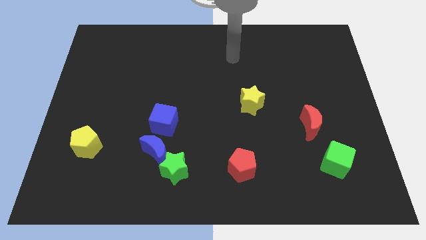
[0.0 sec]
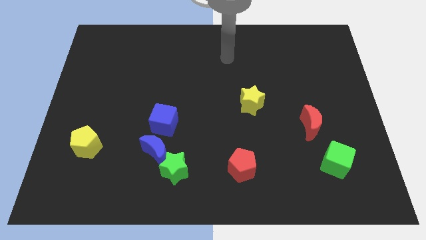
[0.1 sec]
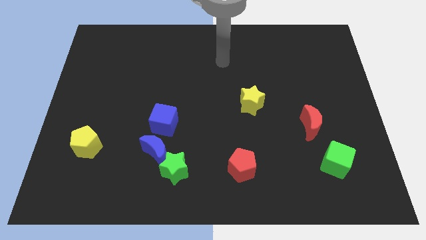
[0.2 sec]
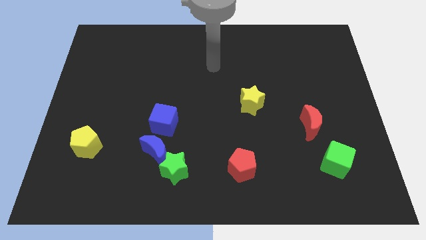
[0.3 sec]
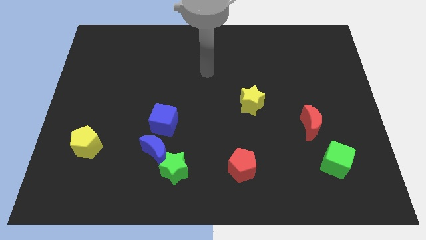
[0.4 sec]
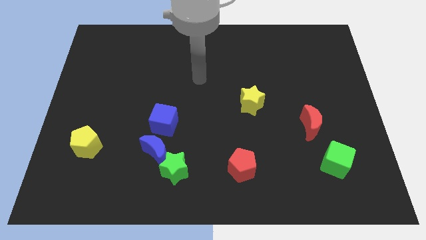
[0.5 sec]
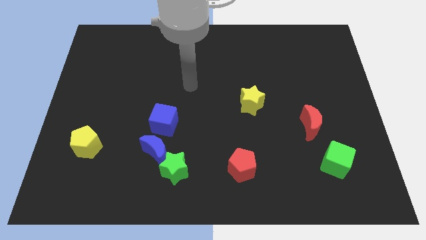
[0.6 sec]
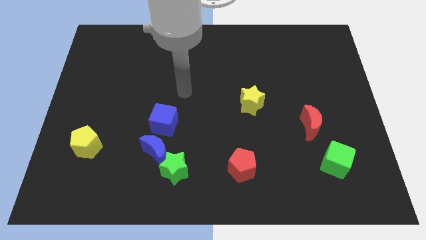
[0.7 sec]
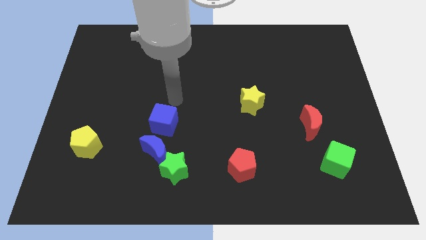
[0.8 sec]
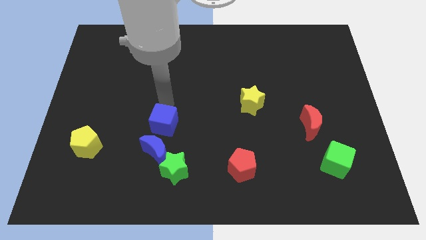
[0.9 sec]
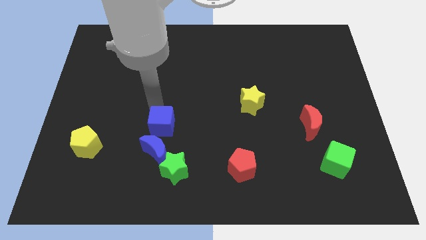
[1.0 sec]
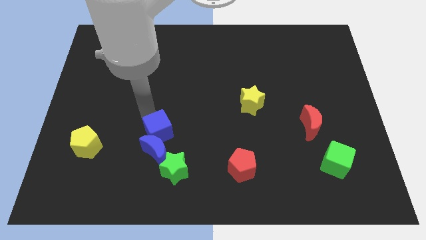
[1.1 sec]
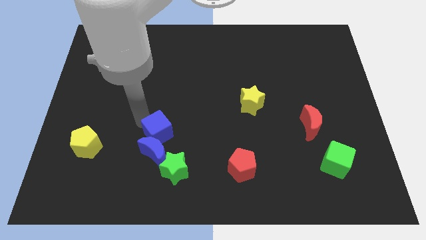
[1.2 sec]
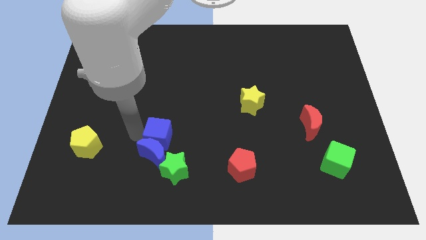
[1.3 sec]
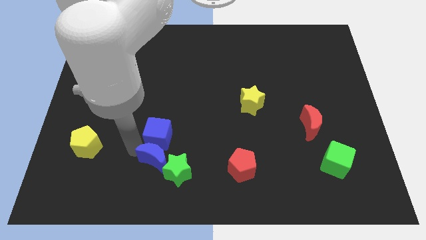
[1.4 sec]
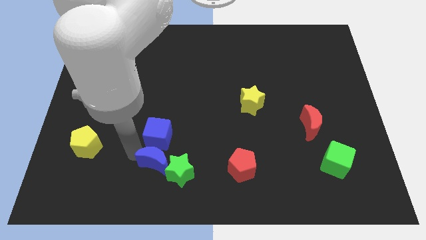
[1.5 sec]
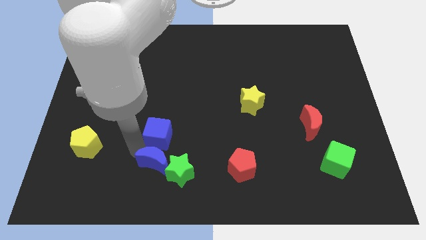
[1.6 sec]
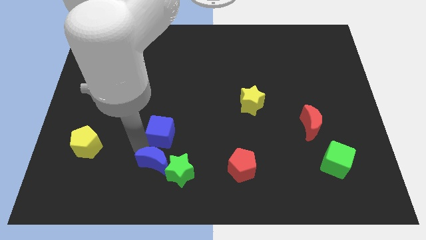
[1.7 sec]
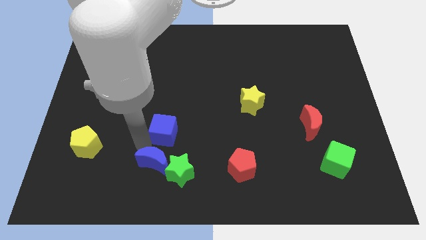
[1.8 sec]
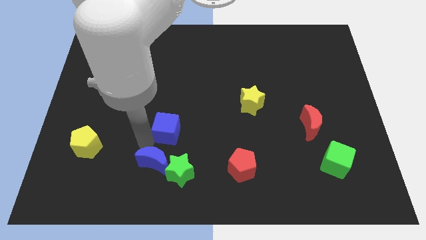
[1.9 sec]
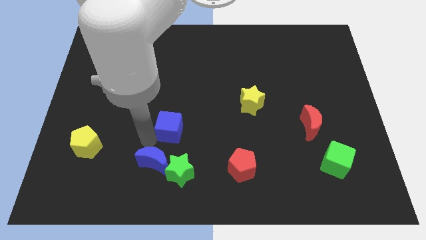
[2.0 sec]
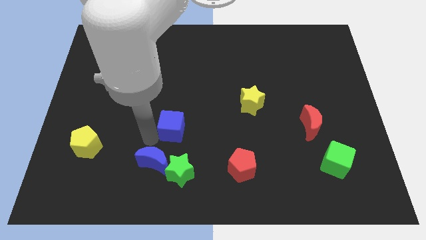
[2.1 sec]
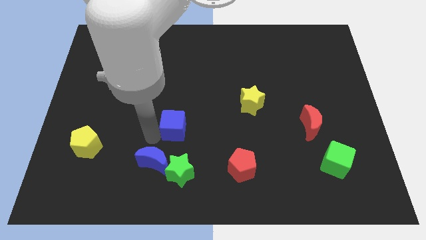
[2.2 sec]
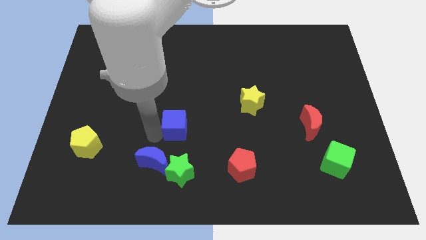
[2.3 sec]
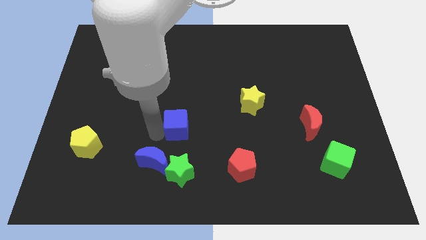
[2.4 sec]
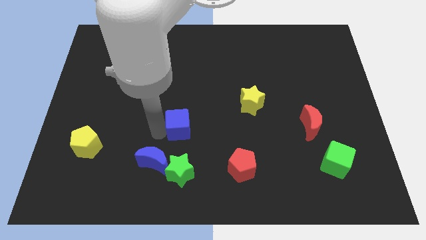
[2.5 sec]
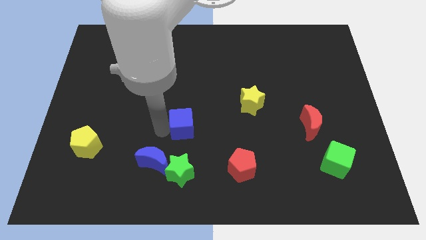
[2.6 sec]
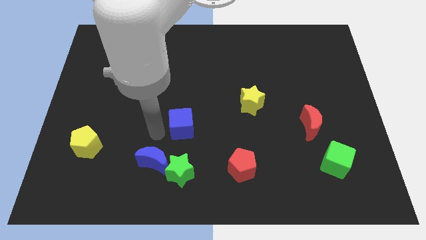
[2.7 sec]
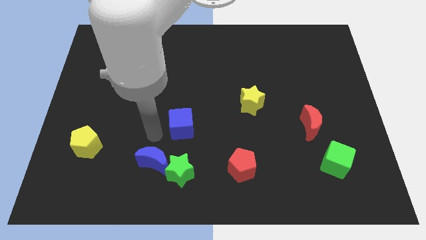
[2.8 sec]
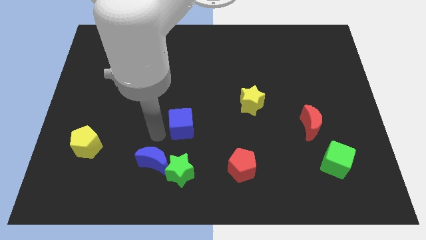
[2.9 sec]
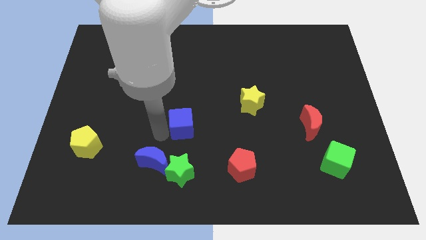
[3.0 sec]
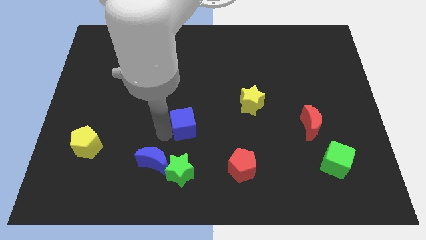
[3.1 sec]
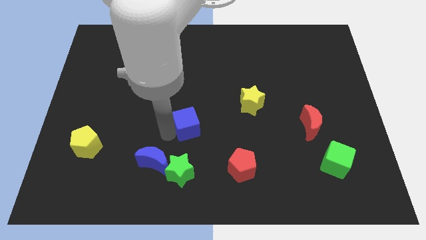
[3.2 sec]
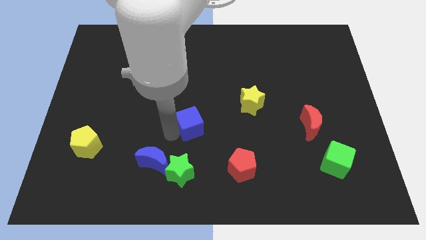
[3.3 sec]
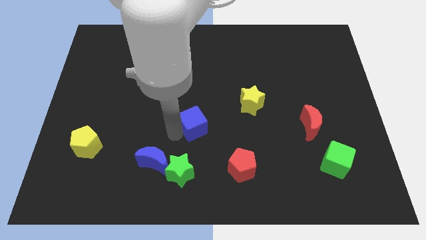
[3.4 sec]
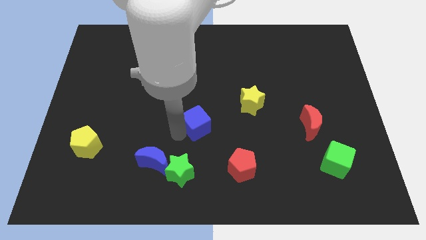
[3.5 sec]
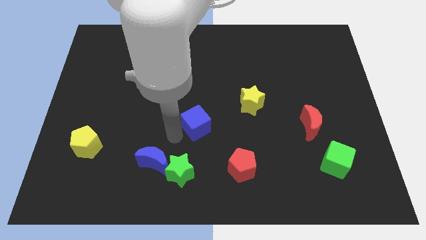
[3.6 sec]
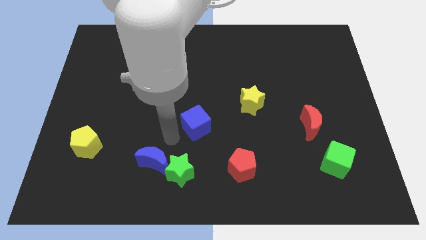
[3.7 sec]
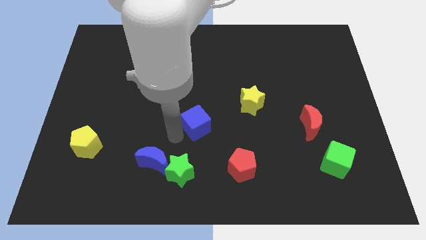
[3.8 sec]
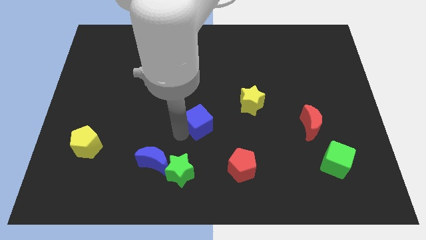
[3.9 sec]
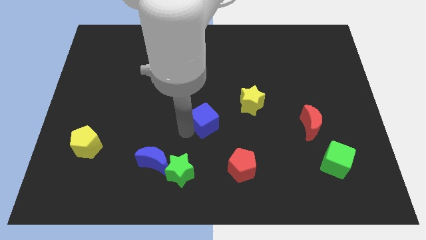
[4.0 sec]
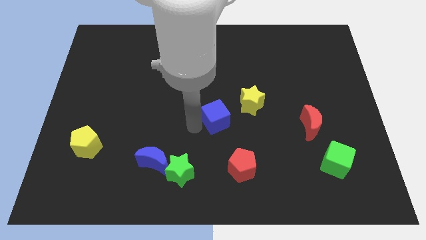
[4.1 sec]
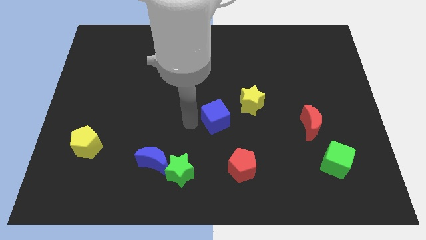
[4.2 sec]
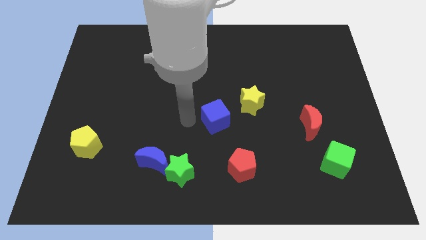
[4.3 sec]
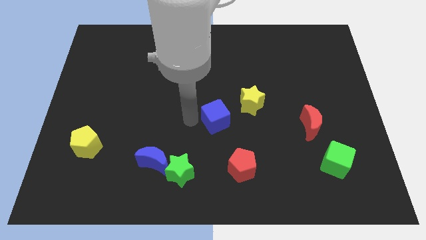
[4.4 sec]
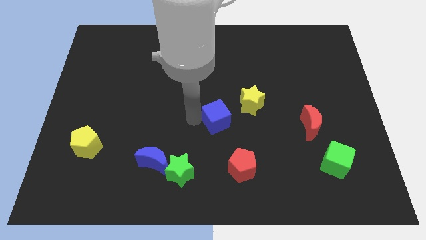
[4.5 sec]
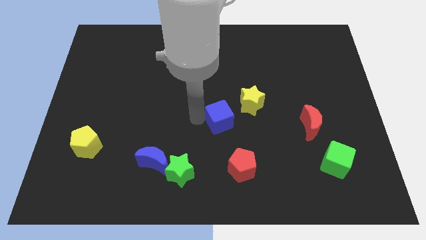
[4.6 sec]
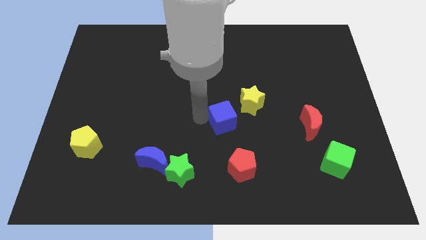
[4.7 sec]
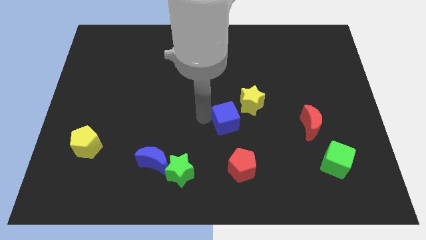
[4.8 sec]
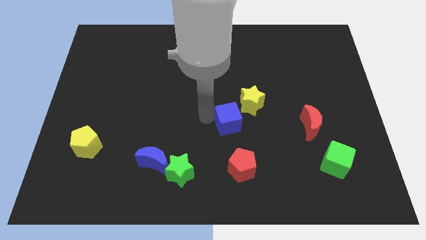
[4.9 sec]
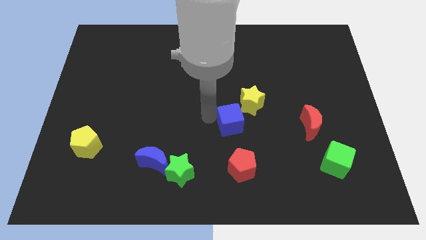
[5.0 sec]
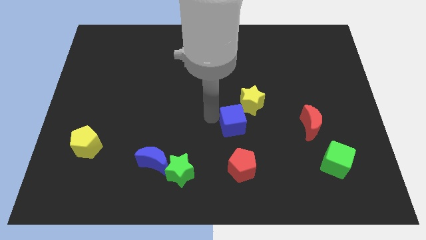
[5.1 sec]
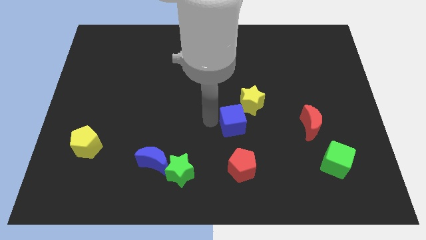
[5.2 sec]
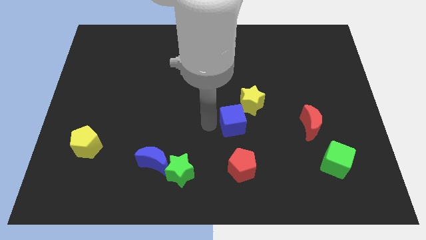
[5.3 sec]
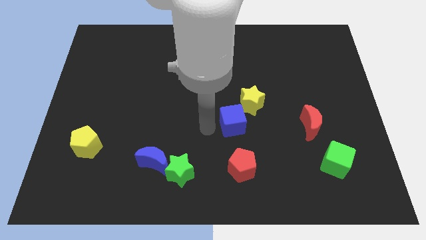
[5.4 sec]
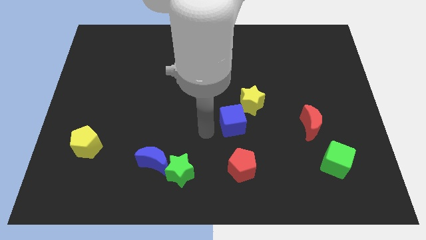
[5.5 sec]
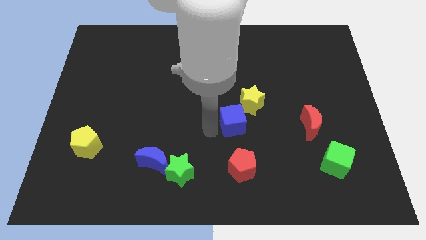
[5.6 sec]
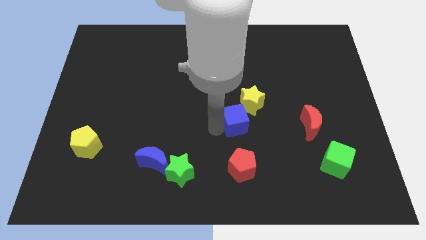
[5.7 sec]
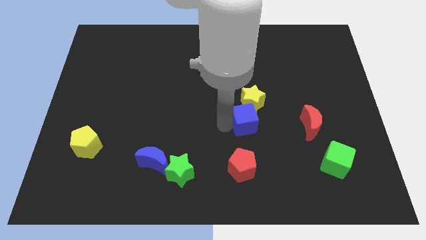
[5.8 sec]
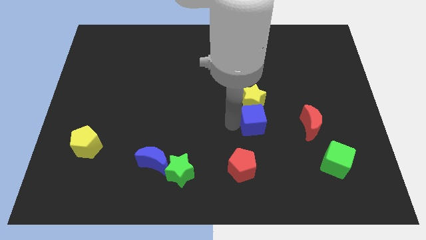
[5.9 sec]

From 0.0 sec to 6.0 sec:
push the blue cube to the bottom right of the yellow star
